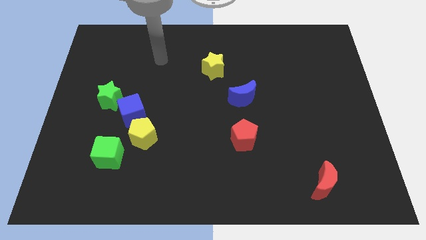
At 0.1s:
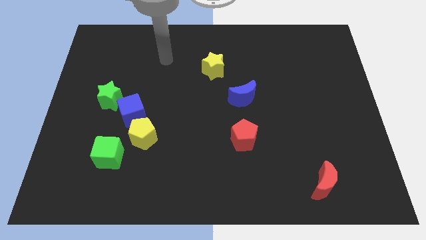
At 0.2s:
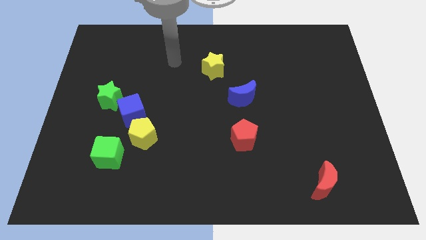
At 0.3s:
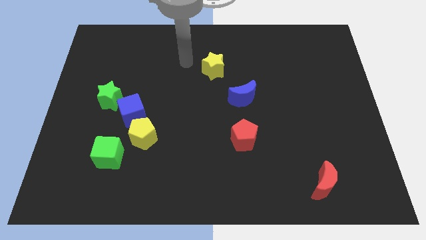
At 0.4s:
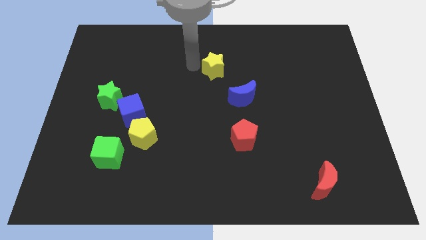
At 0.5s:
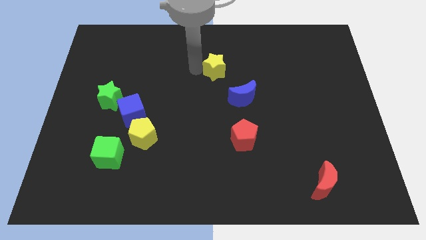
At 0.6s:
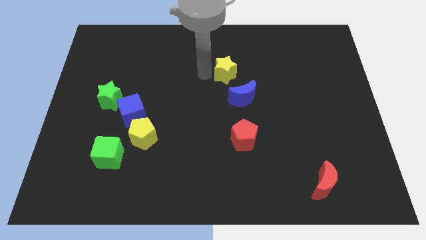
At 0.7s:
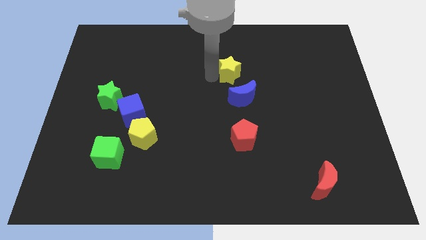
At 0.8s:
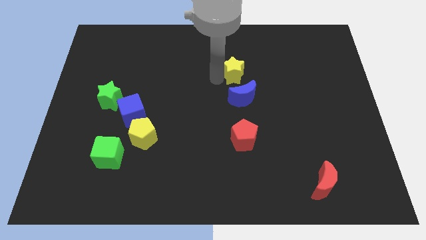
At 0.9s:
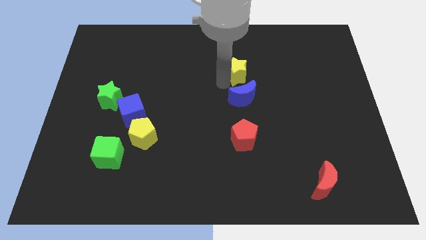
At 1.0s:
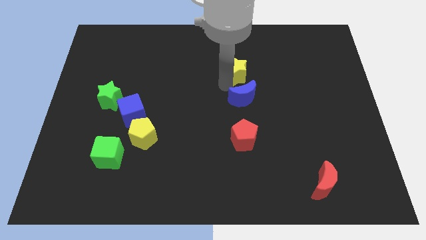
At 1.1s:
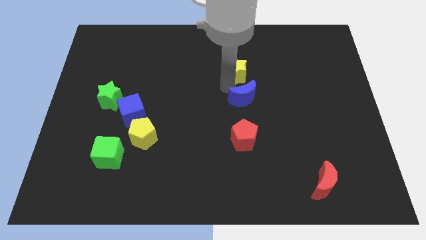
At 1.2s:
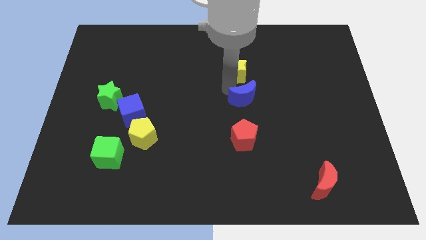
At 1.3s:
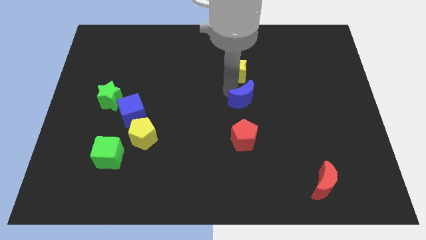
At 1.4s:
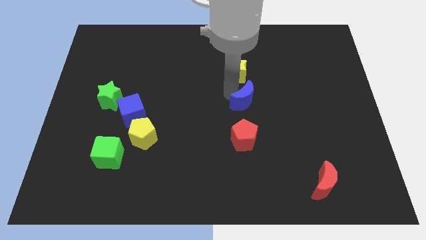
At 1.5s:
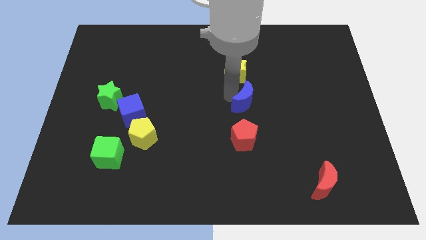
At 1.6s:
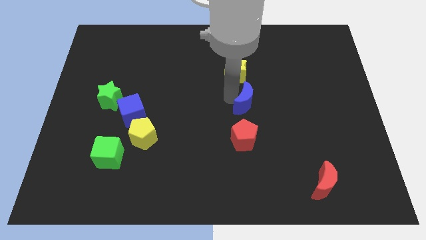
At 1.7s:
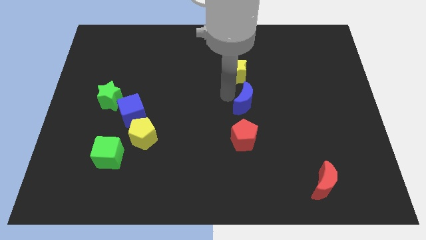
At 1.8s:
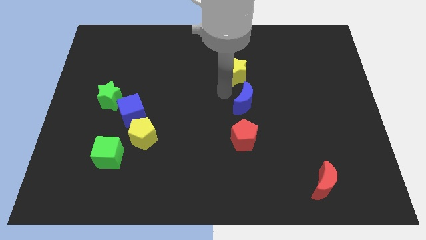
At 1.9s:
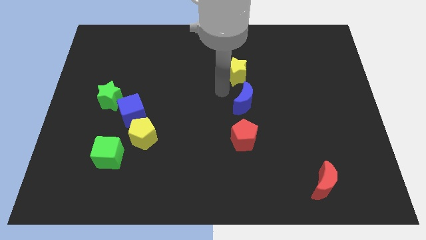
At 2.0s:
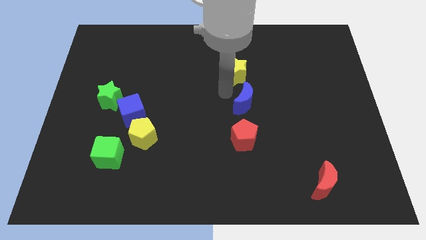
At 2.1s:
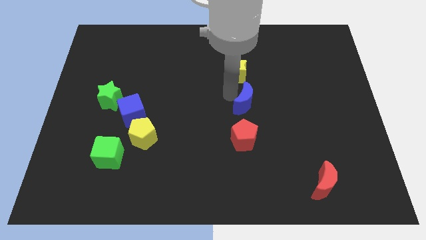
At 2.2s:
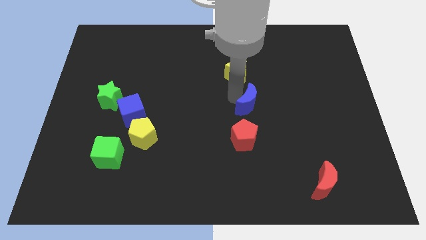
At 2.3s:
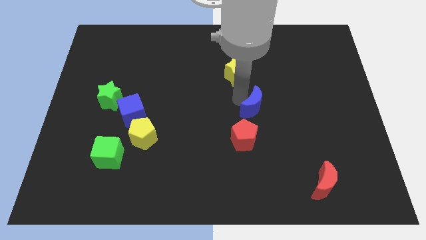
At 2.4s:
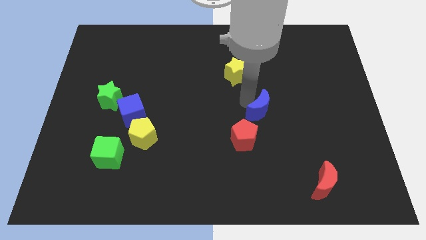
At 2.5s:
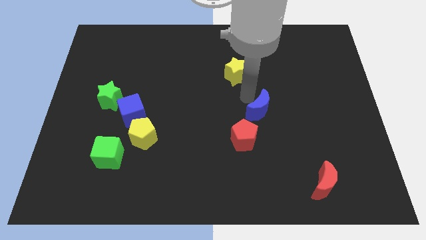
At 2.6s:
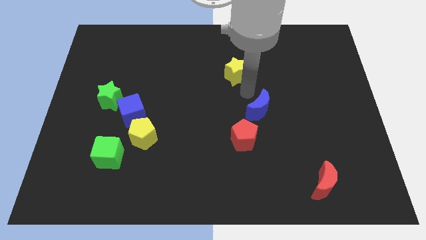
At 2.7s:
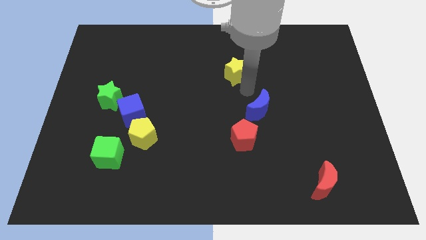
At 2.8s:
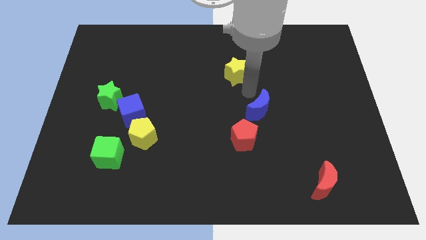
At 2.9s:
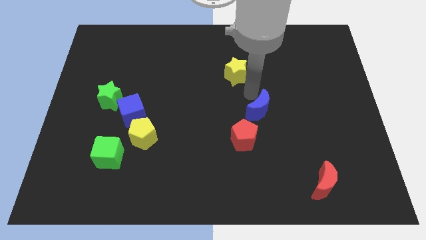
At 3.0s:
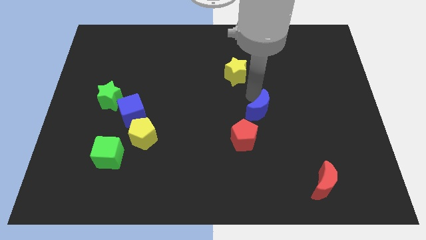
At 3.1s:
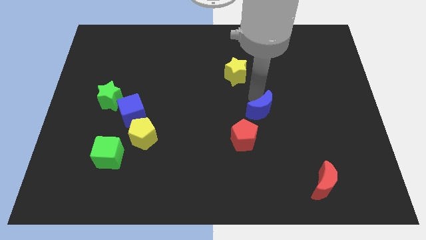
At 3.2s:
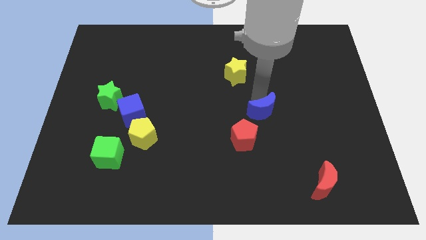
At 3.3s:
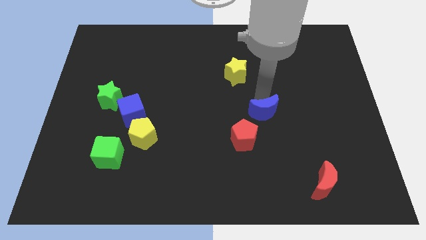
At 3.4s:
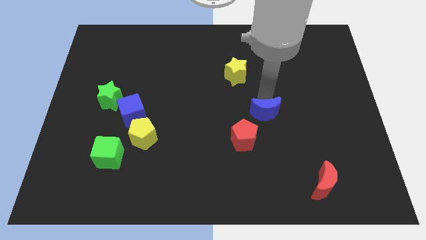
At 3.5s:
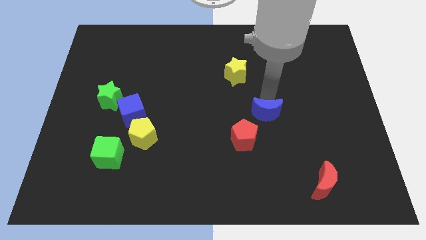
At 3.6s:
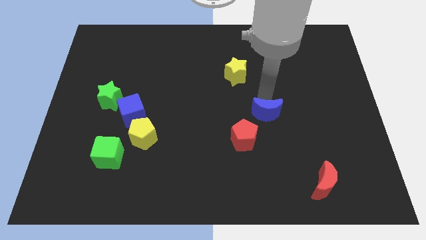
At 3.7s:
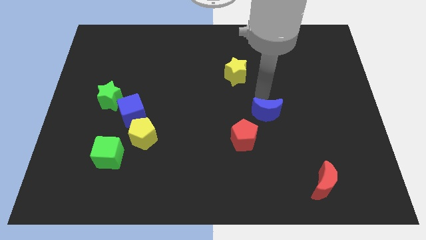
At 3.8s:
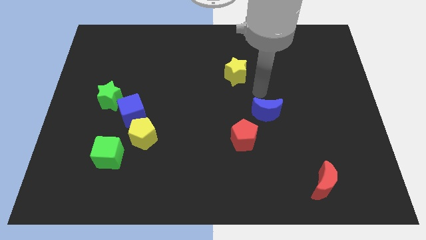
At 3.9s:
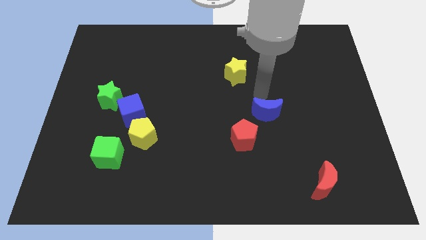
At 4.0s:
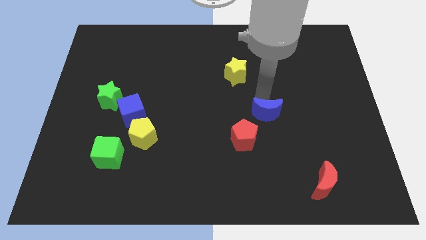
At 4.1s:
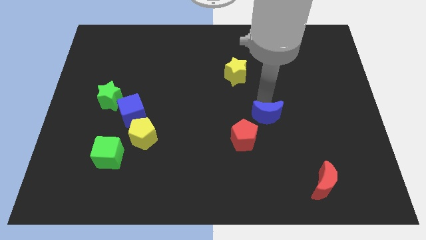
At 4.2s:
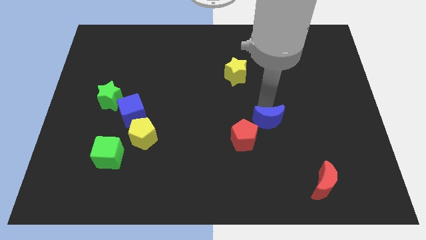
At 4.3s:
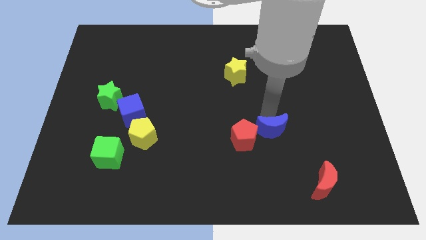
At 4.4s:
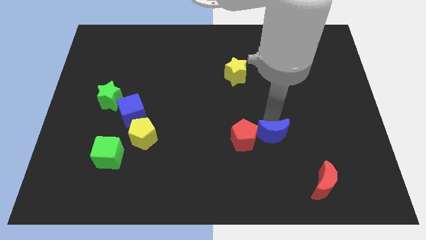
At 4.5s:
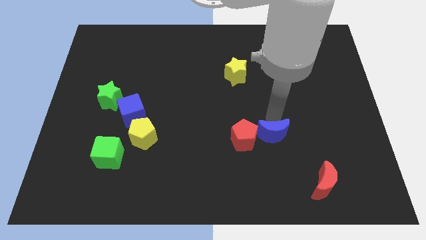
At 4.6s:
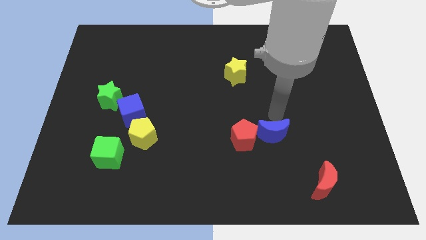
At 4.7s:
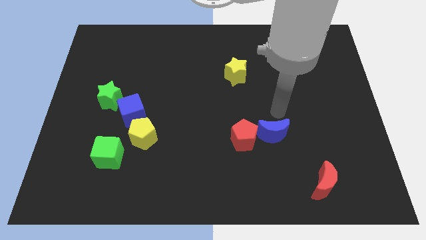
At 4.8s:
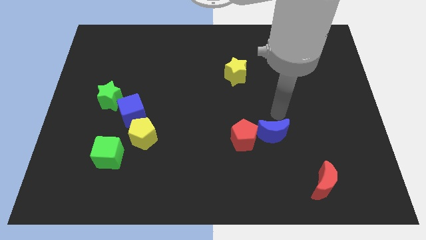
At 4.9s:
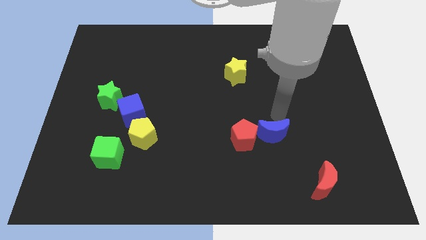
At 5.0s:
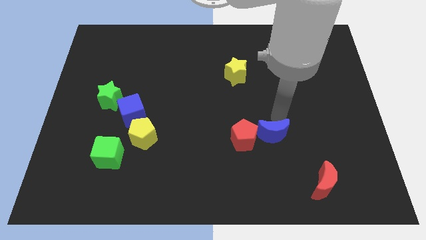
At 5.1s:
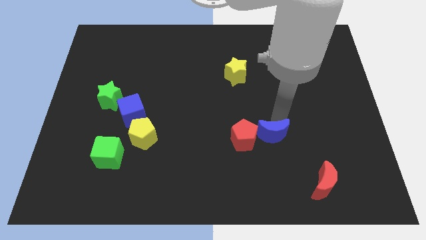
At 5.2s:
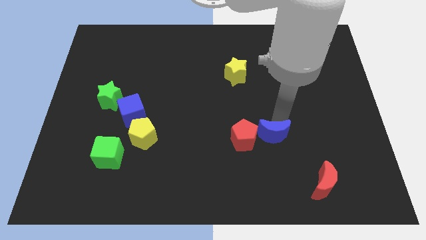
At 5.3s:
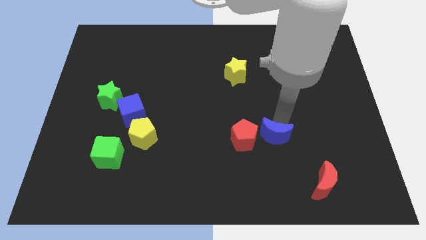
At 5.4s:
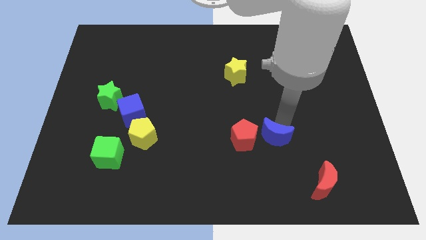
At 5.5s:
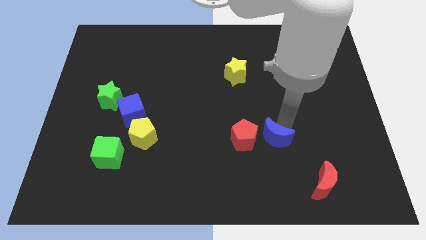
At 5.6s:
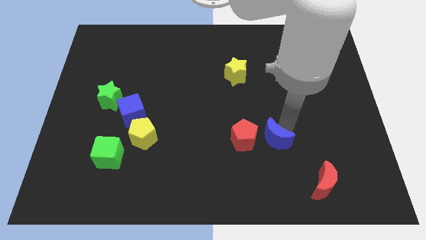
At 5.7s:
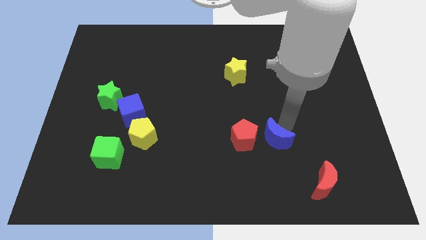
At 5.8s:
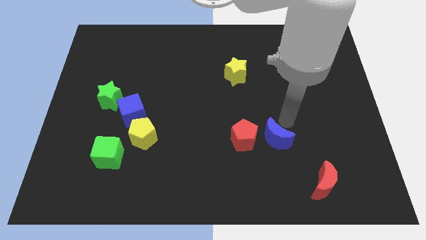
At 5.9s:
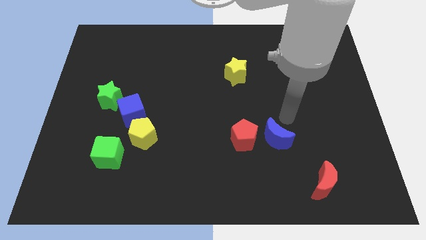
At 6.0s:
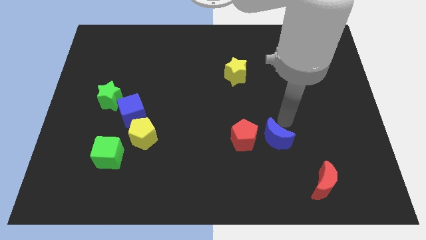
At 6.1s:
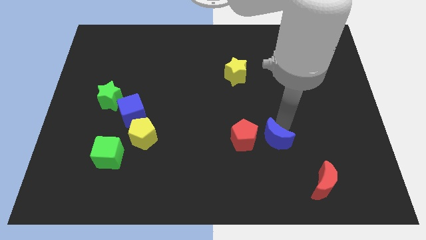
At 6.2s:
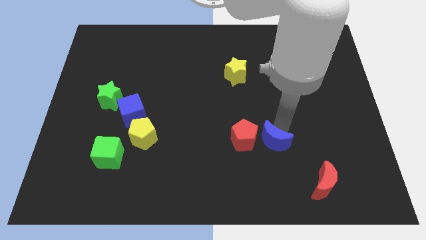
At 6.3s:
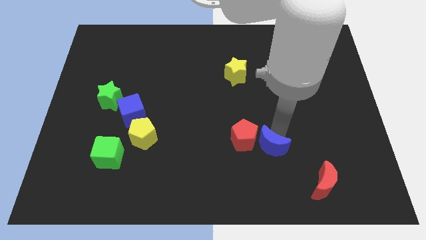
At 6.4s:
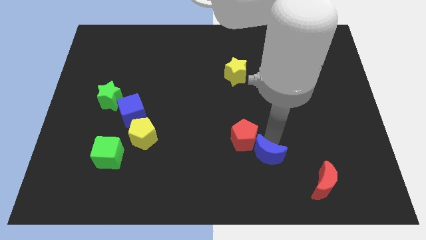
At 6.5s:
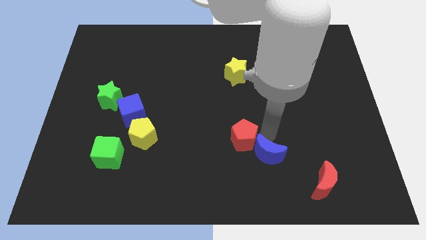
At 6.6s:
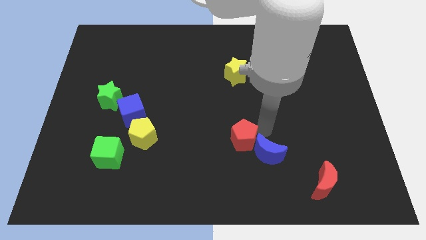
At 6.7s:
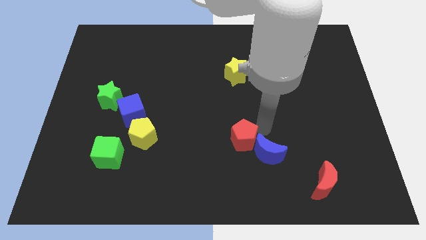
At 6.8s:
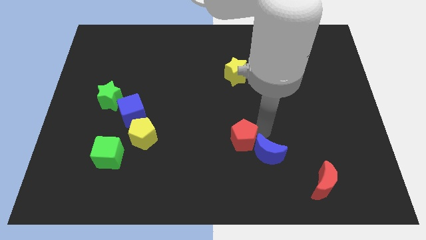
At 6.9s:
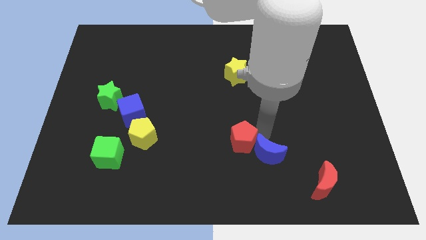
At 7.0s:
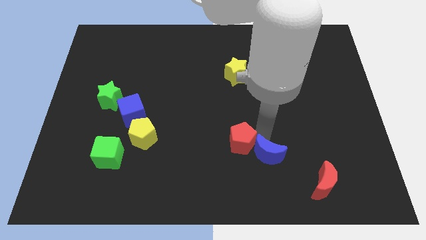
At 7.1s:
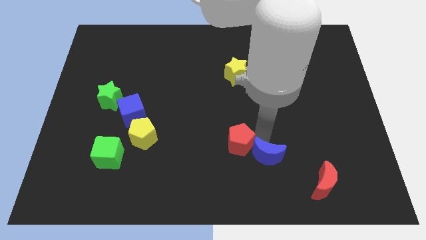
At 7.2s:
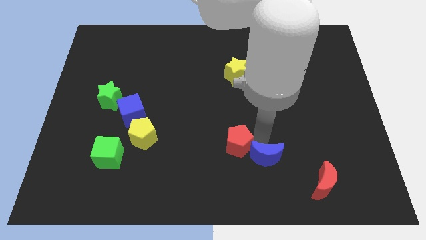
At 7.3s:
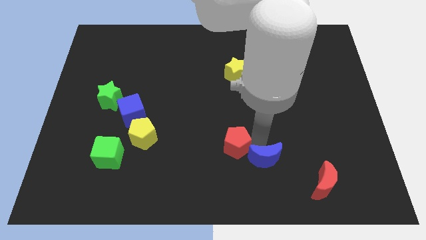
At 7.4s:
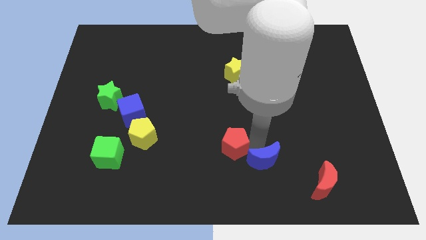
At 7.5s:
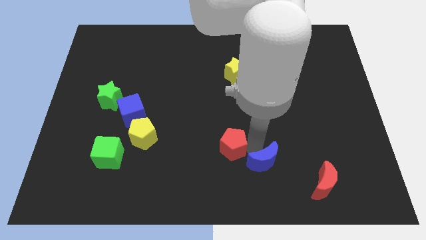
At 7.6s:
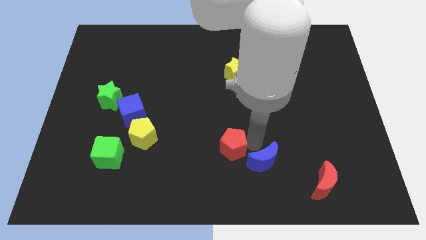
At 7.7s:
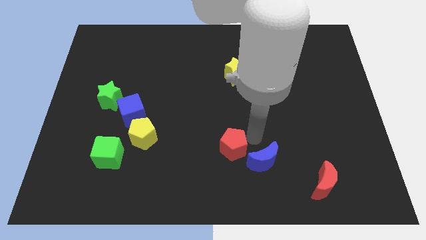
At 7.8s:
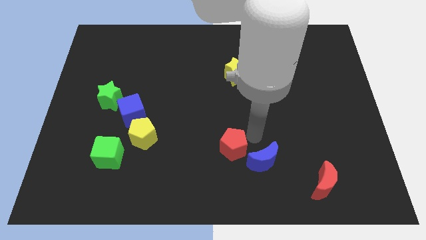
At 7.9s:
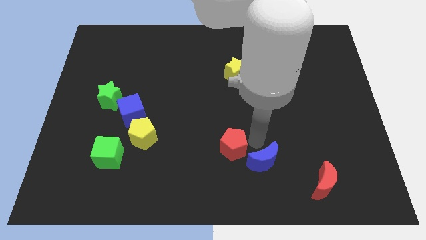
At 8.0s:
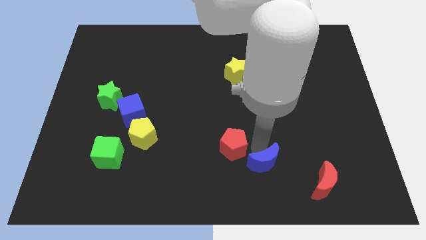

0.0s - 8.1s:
slide the blue moon left of the red moon
